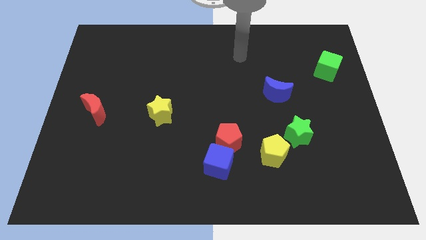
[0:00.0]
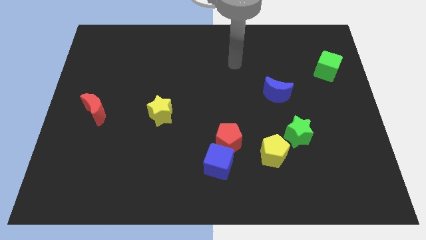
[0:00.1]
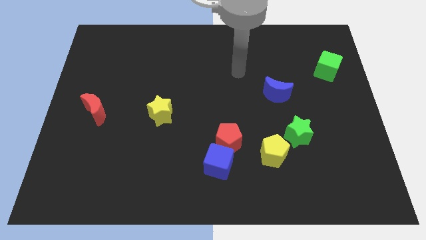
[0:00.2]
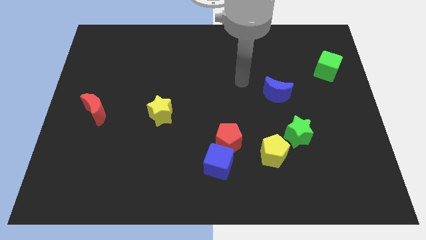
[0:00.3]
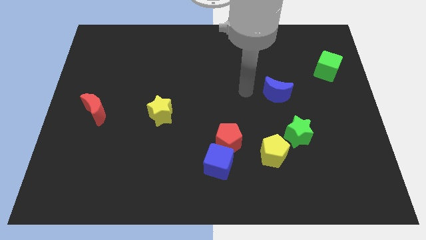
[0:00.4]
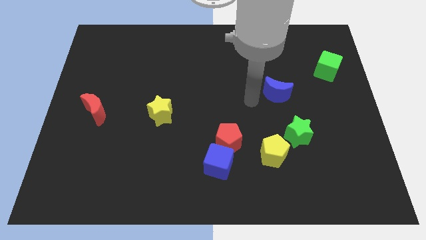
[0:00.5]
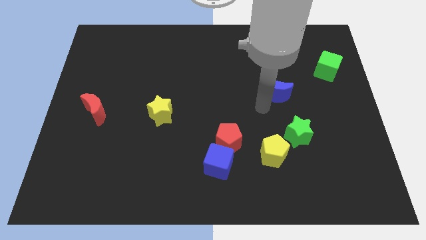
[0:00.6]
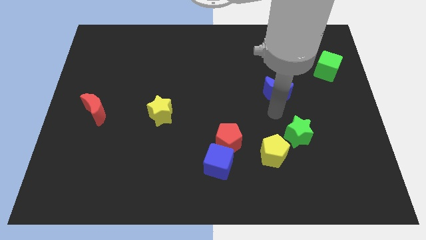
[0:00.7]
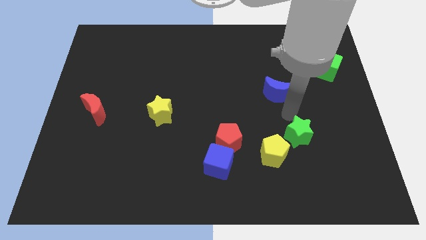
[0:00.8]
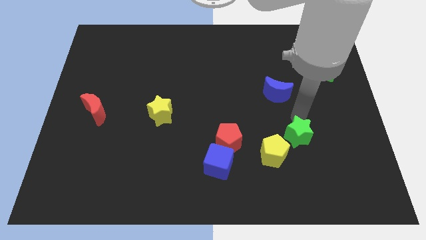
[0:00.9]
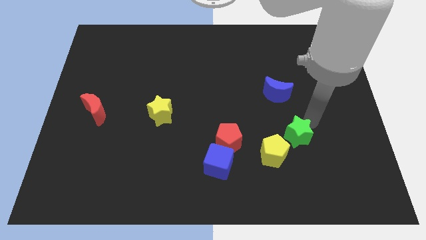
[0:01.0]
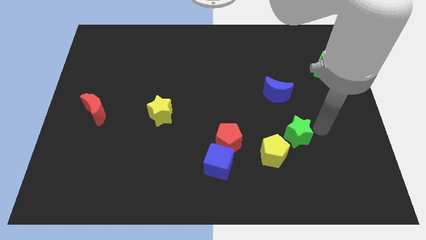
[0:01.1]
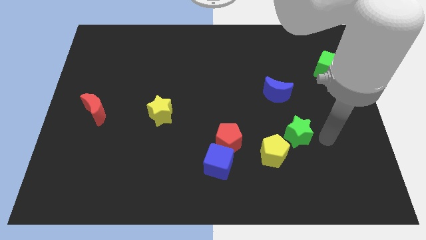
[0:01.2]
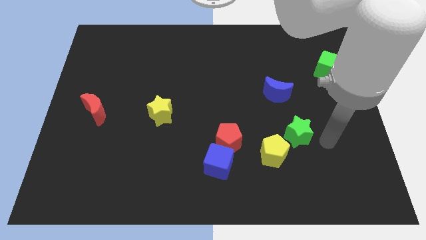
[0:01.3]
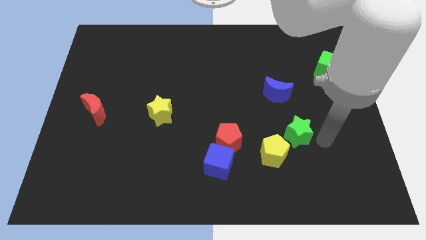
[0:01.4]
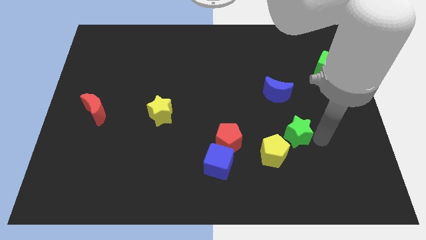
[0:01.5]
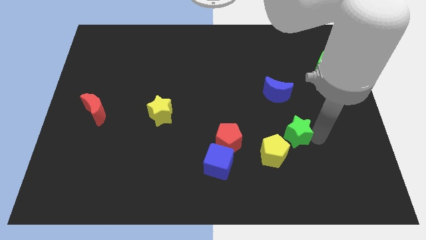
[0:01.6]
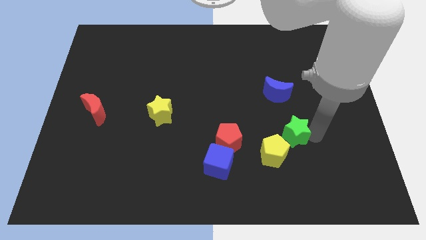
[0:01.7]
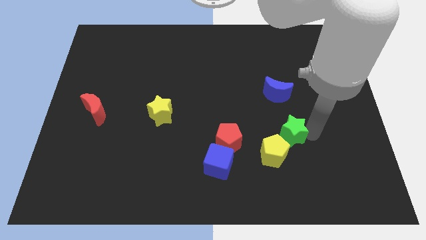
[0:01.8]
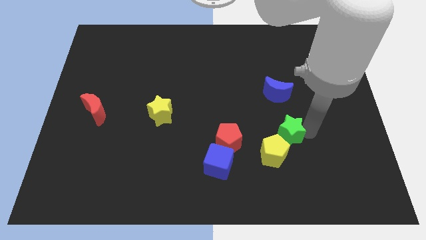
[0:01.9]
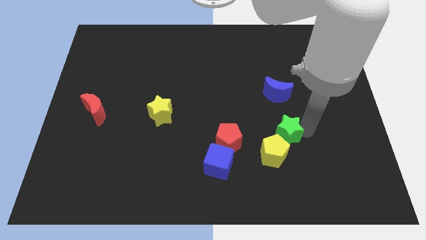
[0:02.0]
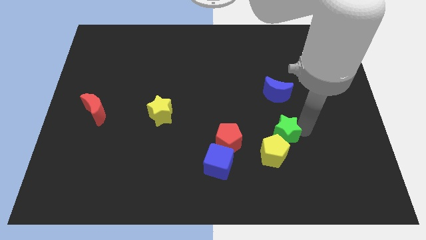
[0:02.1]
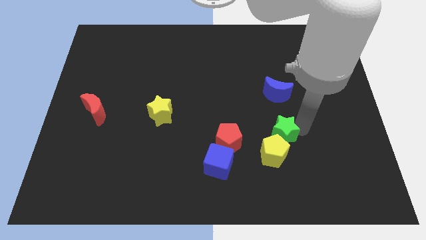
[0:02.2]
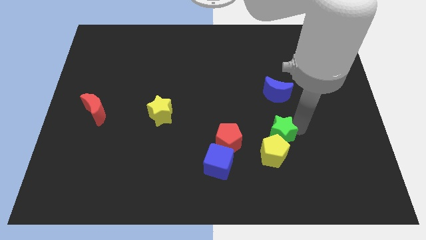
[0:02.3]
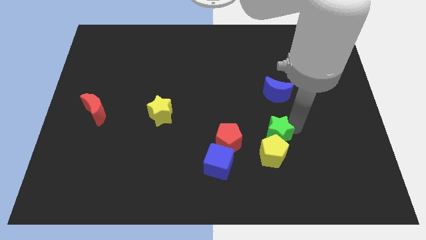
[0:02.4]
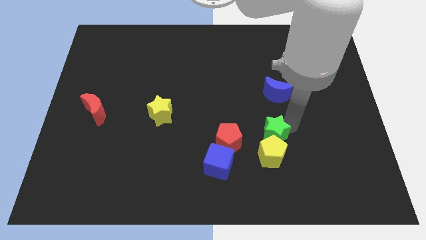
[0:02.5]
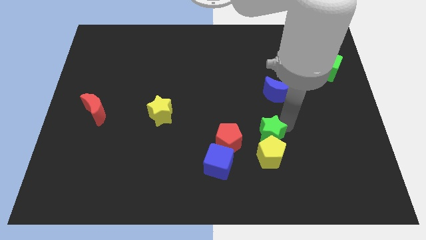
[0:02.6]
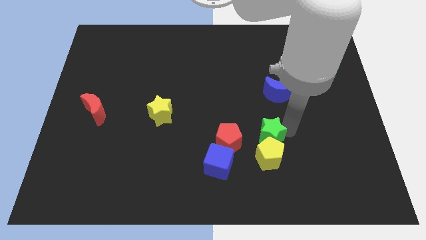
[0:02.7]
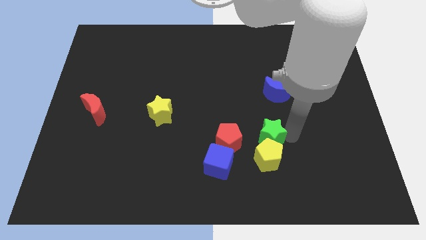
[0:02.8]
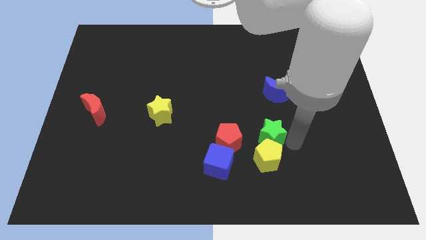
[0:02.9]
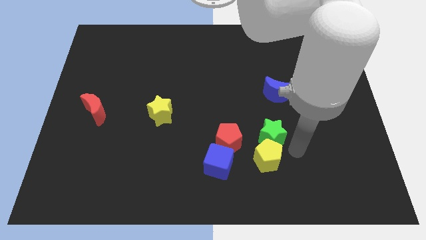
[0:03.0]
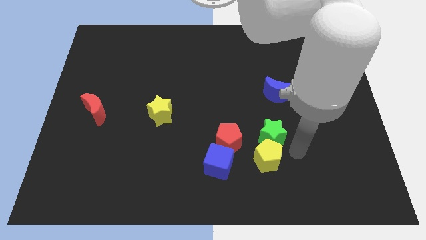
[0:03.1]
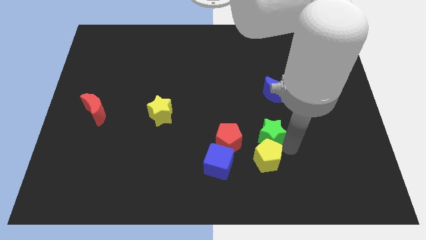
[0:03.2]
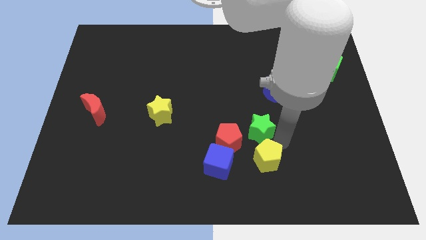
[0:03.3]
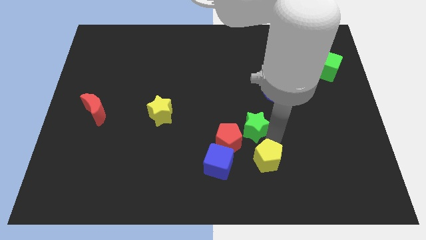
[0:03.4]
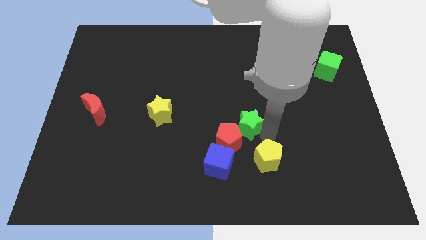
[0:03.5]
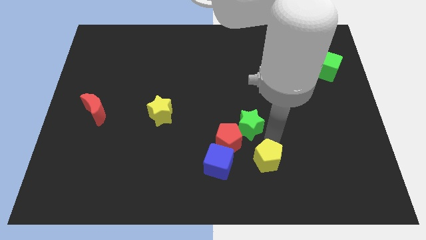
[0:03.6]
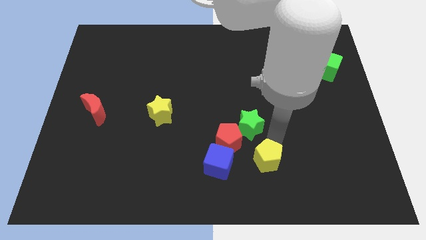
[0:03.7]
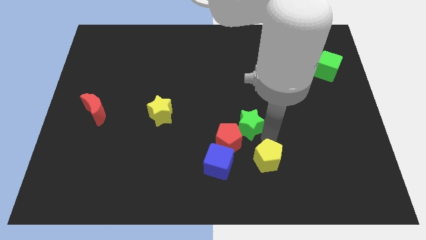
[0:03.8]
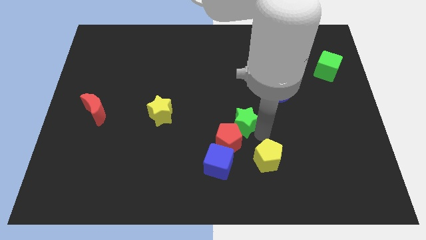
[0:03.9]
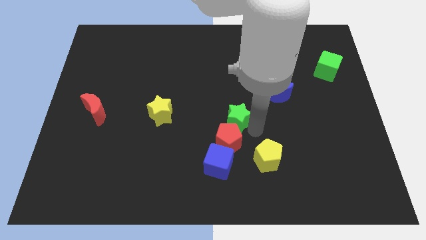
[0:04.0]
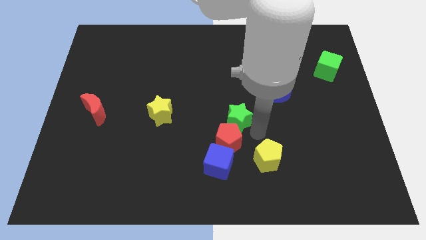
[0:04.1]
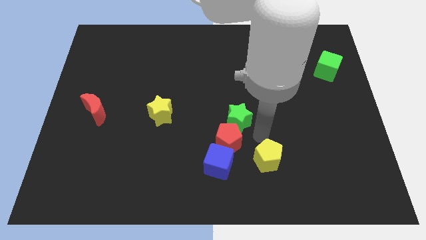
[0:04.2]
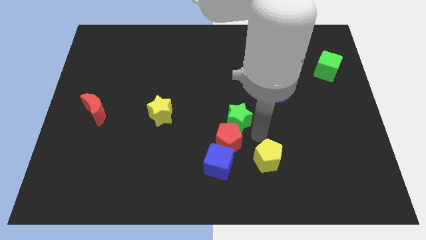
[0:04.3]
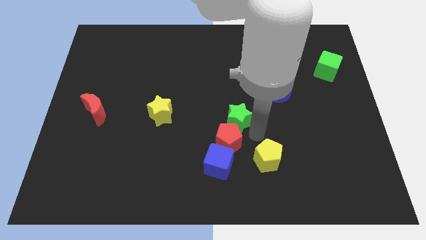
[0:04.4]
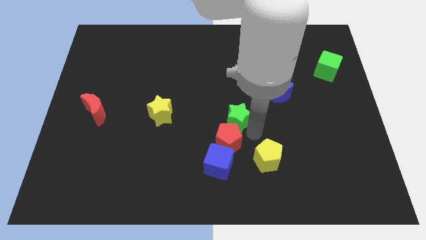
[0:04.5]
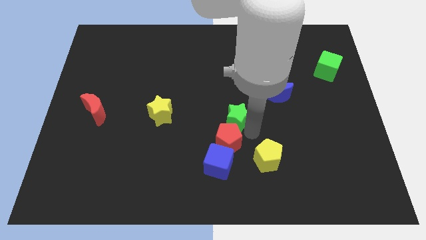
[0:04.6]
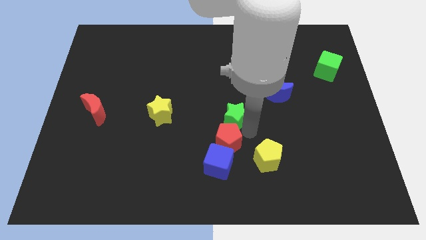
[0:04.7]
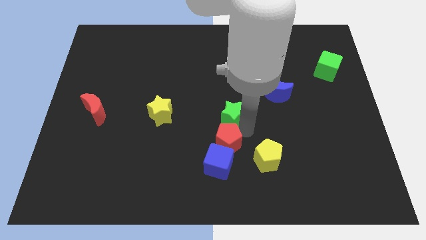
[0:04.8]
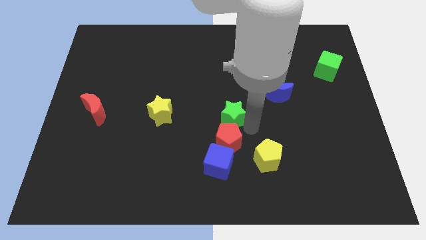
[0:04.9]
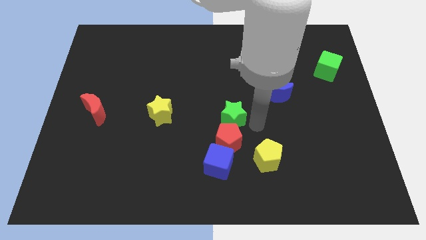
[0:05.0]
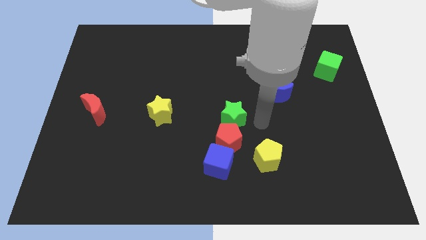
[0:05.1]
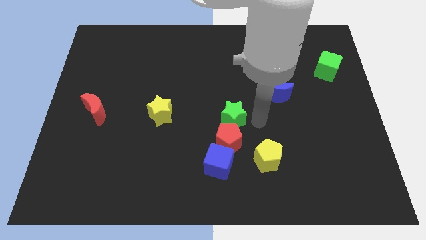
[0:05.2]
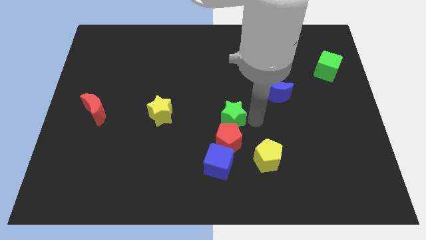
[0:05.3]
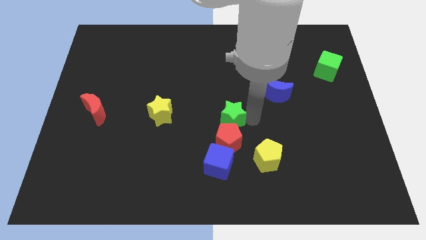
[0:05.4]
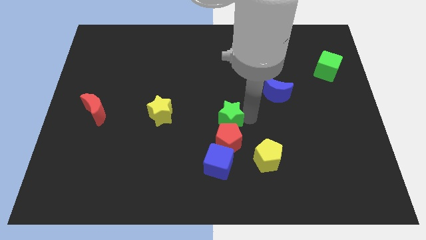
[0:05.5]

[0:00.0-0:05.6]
put the green star to the right of the yellow star

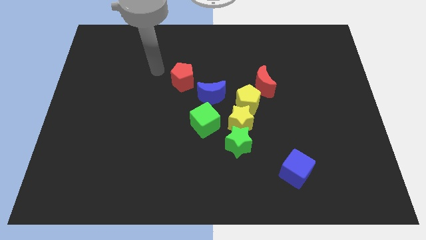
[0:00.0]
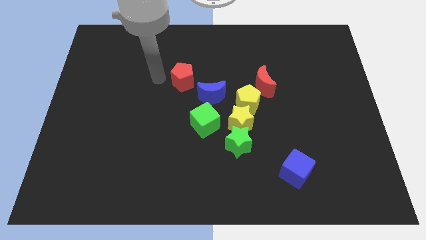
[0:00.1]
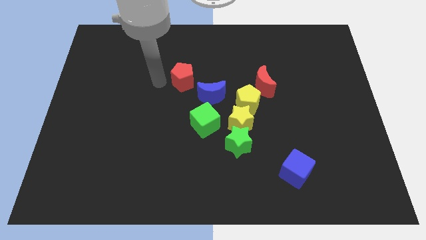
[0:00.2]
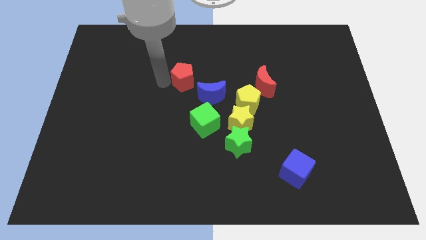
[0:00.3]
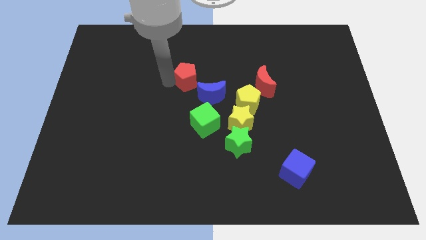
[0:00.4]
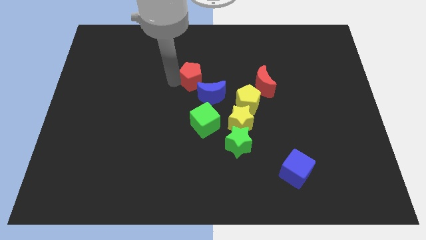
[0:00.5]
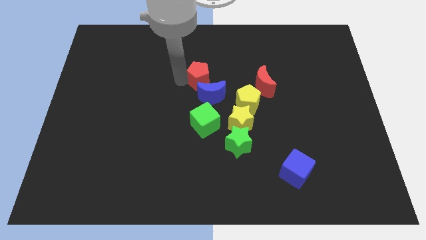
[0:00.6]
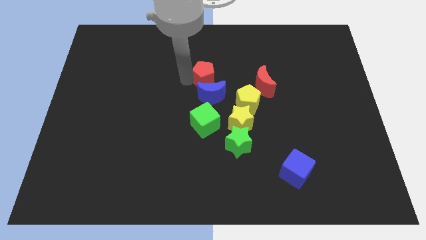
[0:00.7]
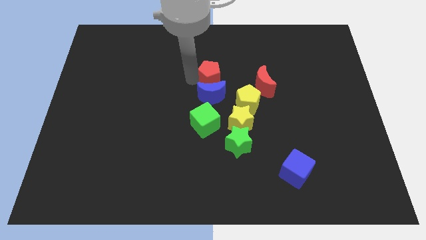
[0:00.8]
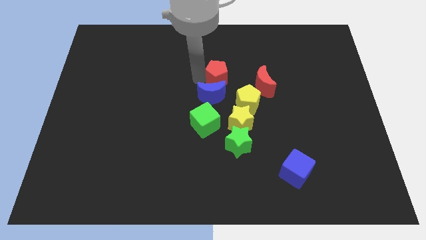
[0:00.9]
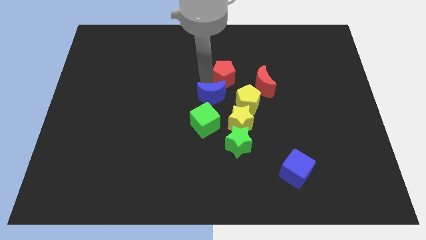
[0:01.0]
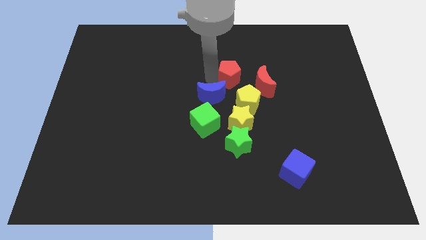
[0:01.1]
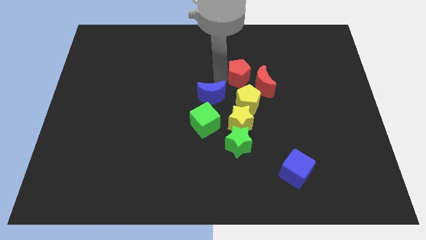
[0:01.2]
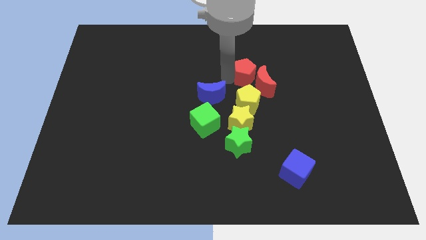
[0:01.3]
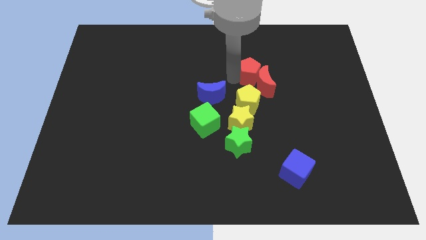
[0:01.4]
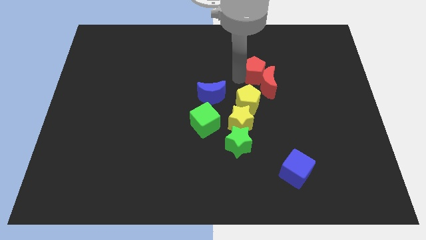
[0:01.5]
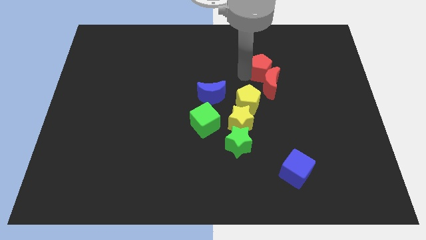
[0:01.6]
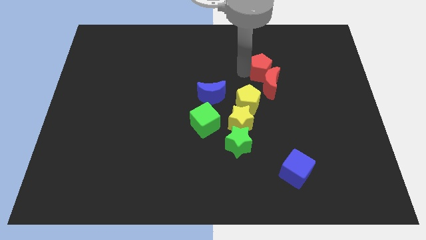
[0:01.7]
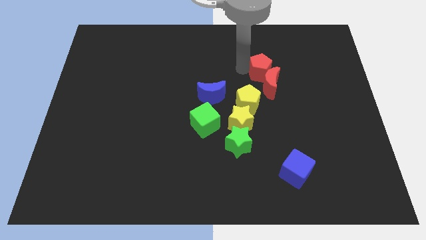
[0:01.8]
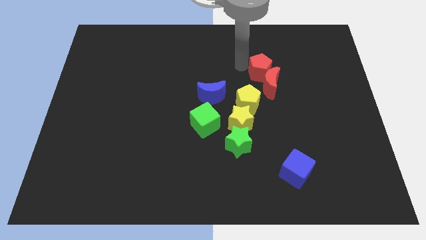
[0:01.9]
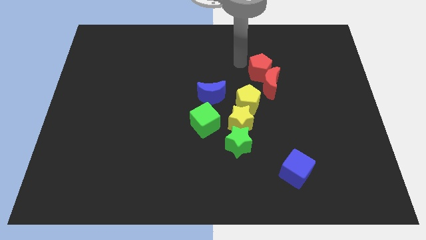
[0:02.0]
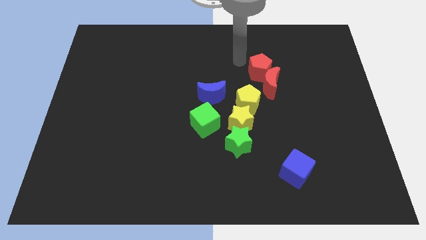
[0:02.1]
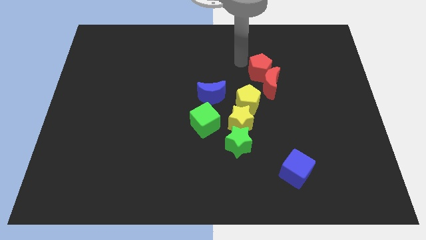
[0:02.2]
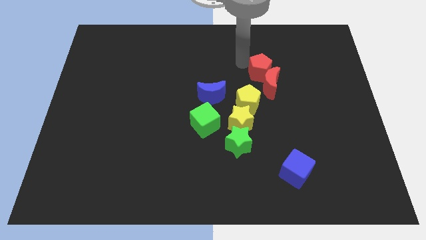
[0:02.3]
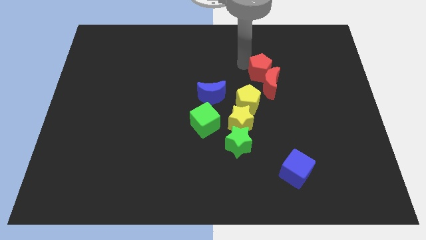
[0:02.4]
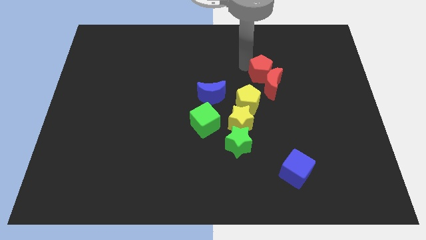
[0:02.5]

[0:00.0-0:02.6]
push the red pentagon diagonally up and to the right of the yellow pentagon
